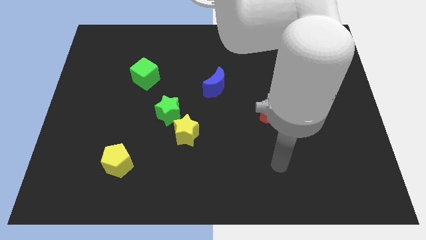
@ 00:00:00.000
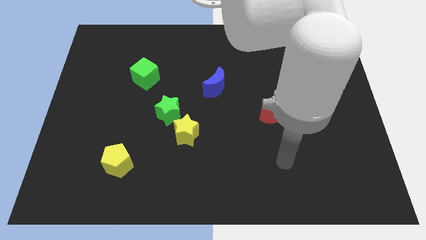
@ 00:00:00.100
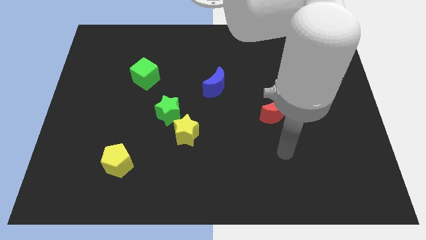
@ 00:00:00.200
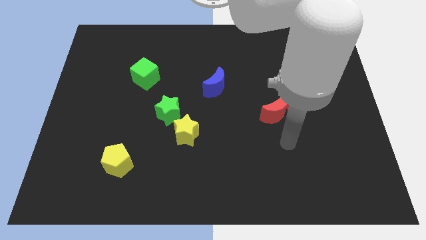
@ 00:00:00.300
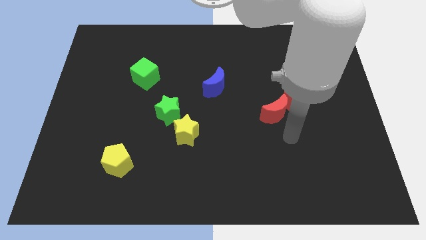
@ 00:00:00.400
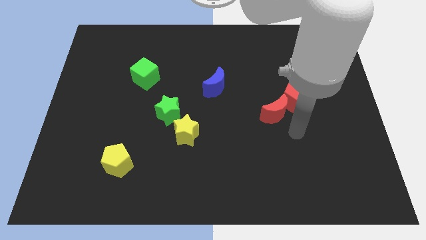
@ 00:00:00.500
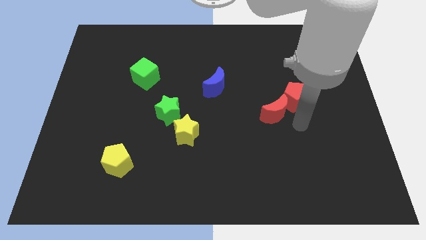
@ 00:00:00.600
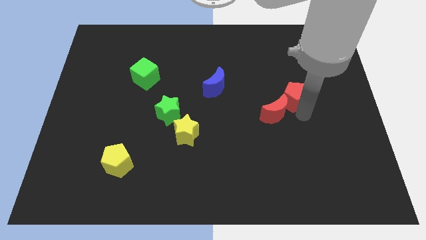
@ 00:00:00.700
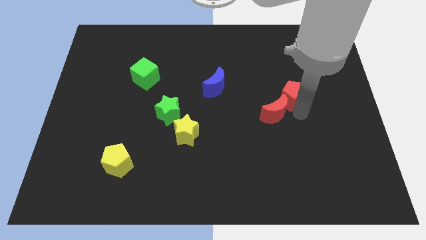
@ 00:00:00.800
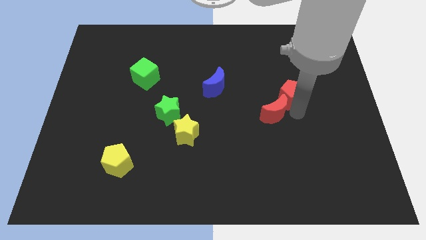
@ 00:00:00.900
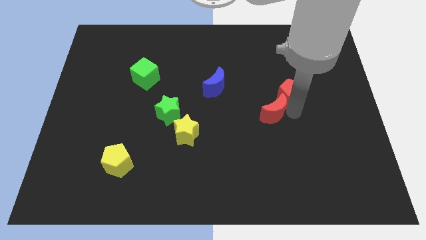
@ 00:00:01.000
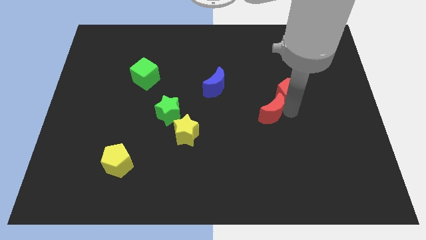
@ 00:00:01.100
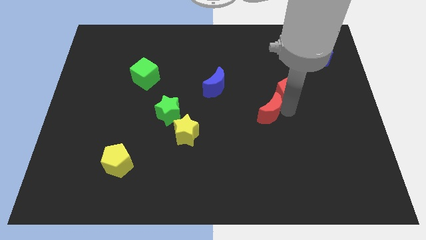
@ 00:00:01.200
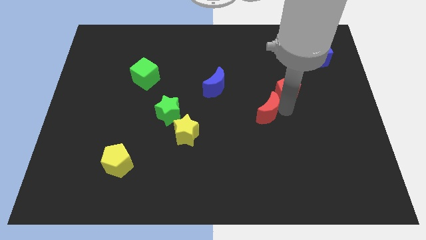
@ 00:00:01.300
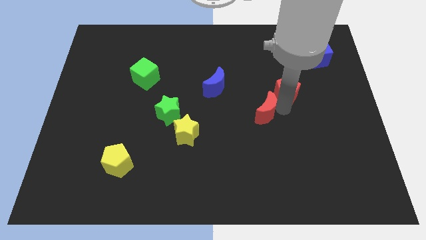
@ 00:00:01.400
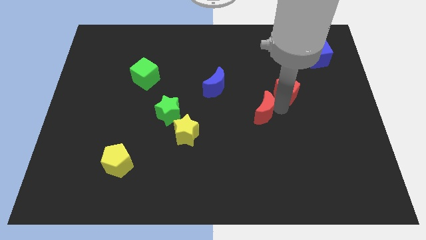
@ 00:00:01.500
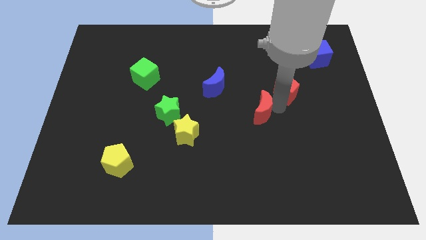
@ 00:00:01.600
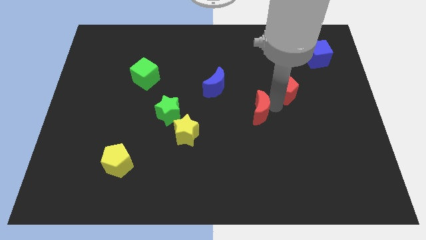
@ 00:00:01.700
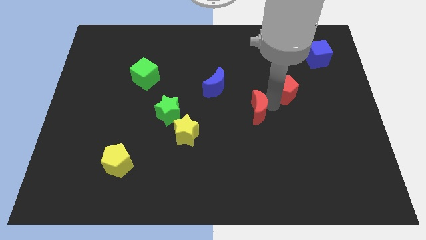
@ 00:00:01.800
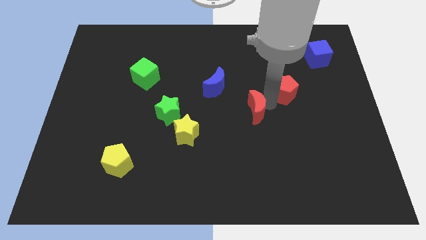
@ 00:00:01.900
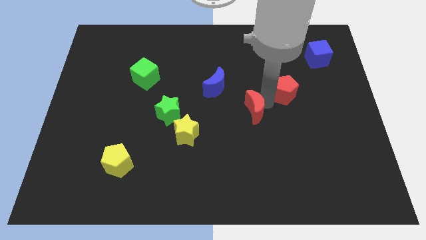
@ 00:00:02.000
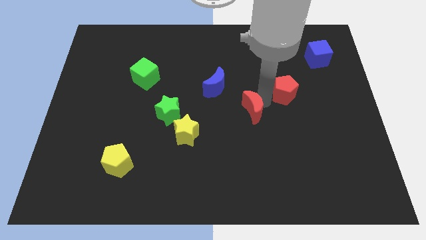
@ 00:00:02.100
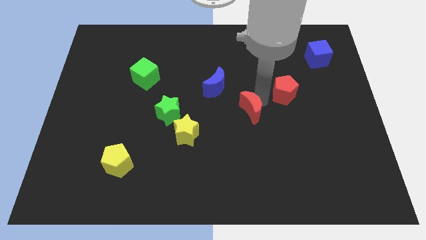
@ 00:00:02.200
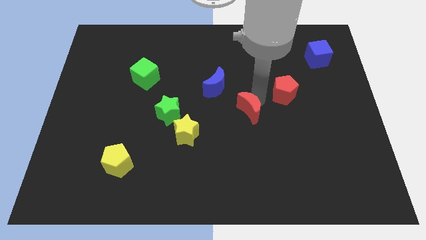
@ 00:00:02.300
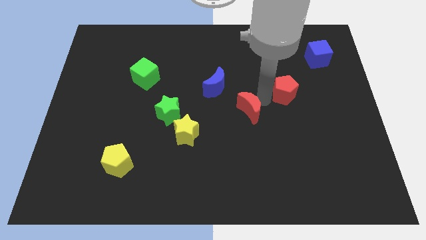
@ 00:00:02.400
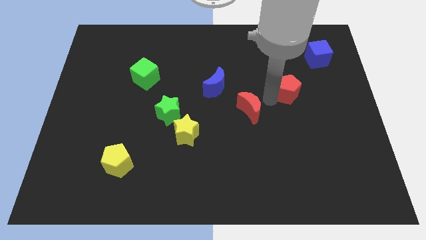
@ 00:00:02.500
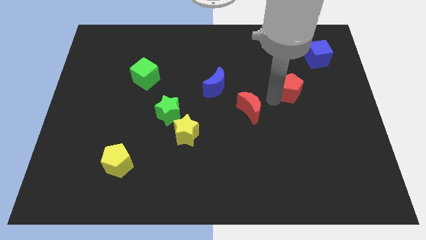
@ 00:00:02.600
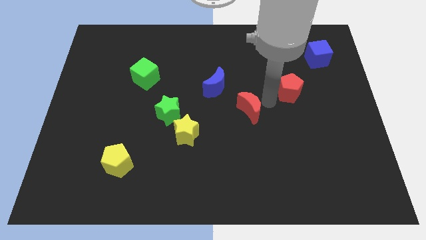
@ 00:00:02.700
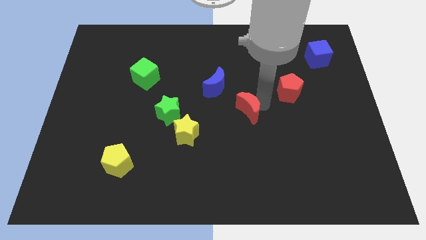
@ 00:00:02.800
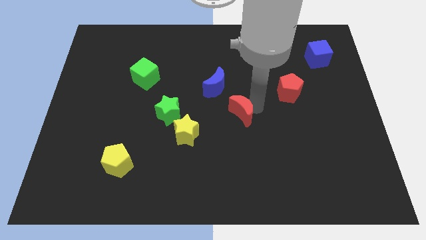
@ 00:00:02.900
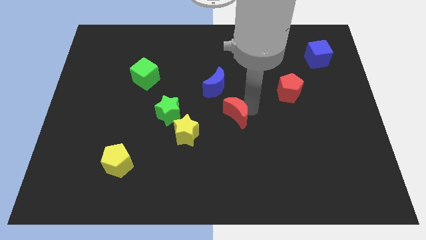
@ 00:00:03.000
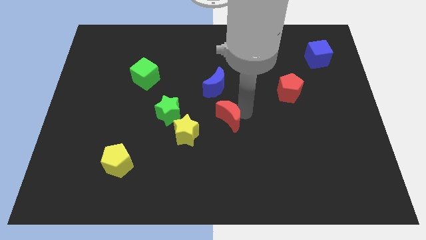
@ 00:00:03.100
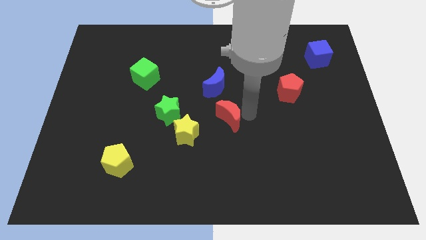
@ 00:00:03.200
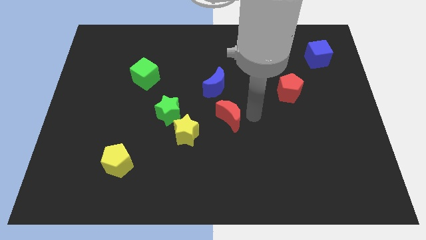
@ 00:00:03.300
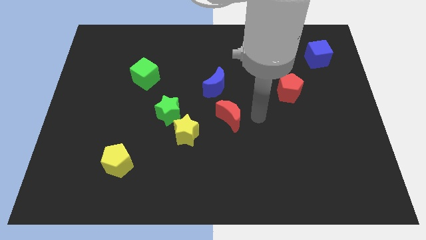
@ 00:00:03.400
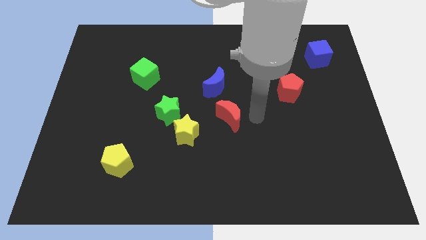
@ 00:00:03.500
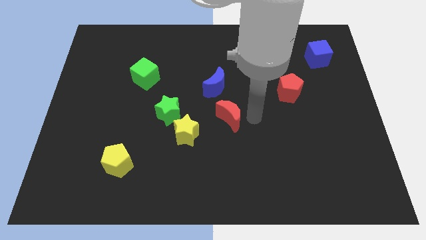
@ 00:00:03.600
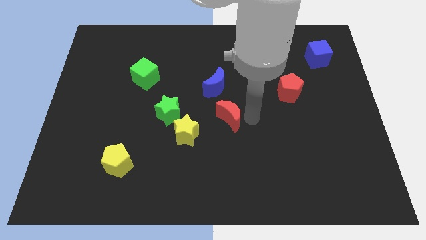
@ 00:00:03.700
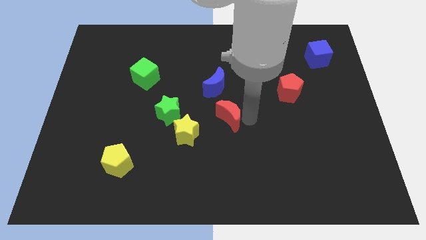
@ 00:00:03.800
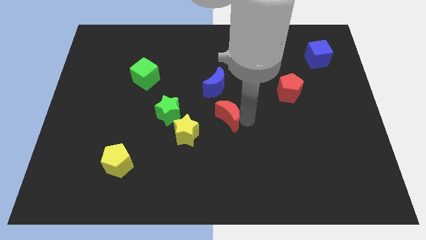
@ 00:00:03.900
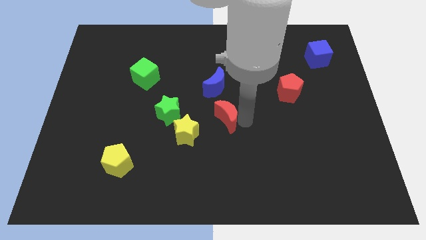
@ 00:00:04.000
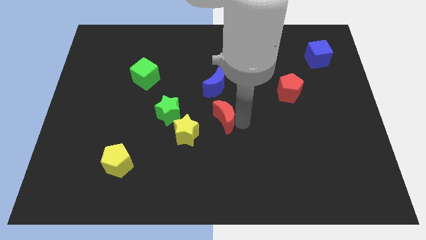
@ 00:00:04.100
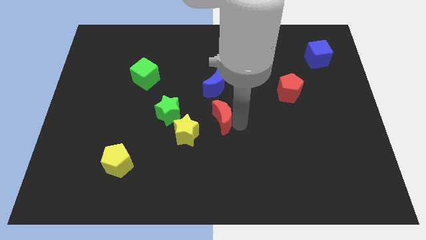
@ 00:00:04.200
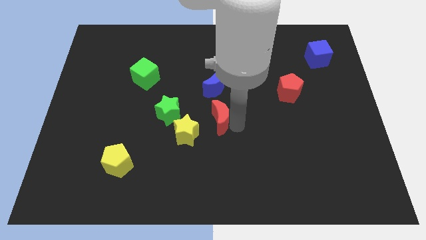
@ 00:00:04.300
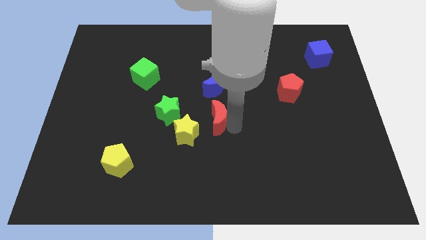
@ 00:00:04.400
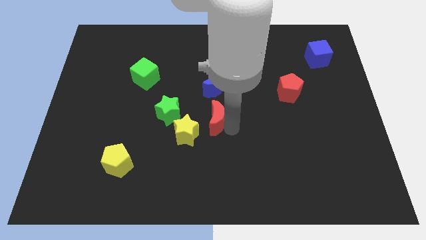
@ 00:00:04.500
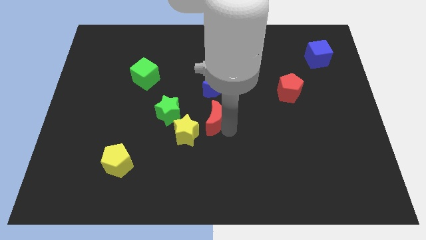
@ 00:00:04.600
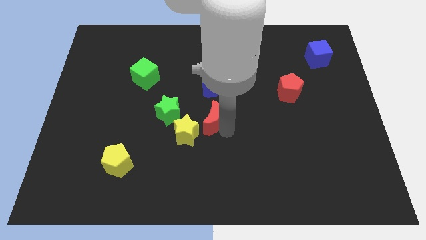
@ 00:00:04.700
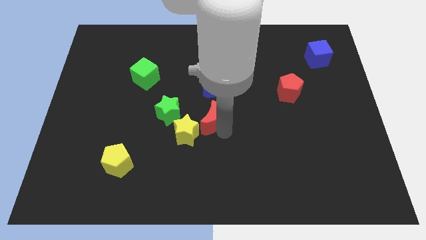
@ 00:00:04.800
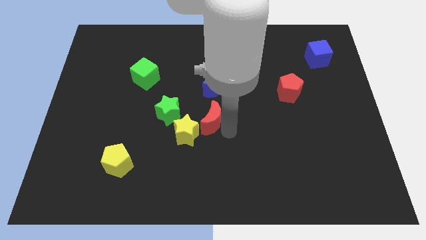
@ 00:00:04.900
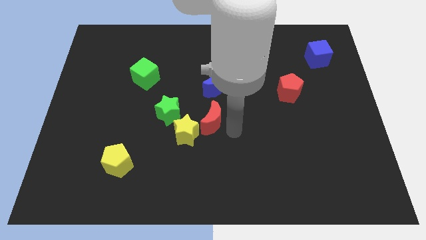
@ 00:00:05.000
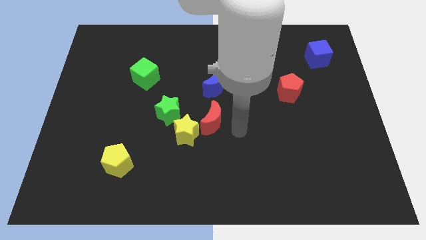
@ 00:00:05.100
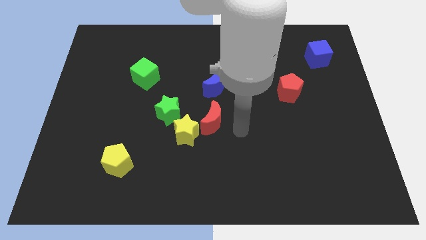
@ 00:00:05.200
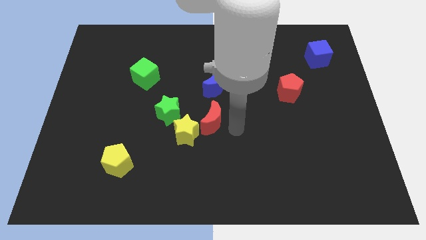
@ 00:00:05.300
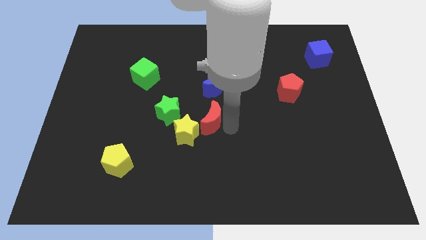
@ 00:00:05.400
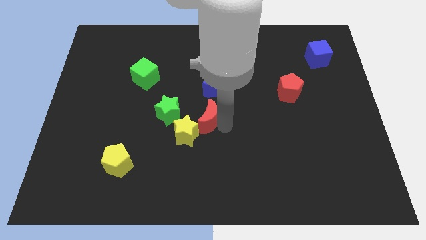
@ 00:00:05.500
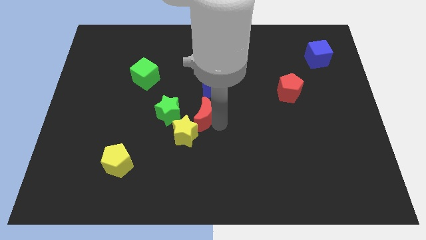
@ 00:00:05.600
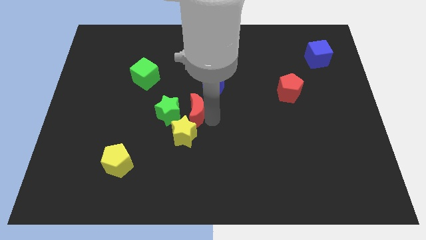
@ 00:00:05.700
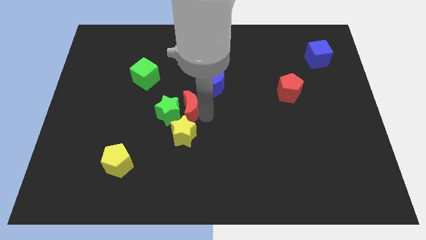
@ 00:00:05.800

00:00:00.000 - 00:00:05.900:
move the red moon to the green star

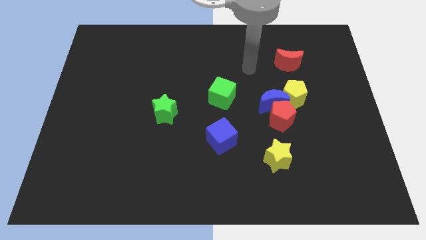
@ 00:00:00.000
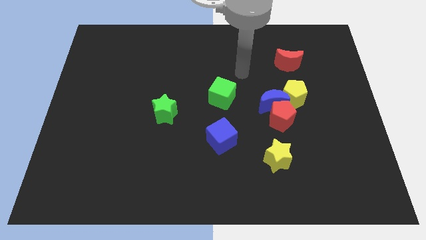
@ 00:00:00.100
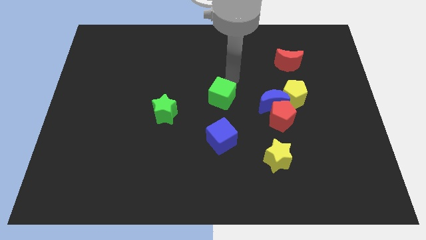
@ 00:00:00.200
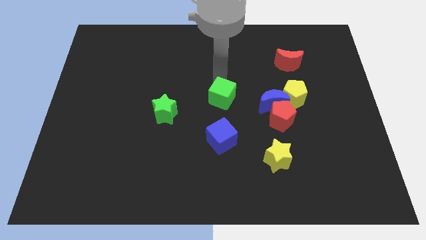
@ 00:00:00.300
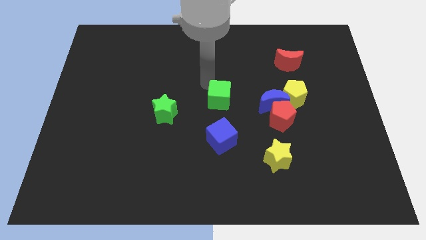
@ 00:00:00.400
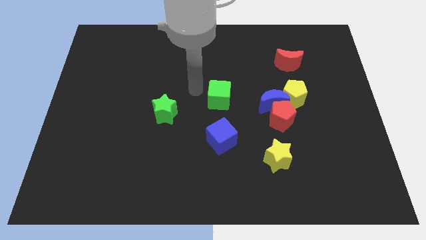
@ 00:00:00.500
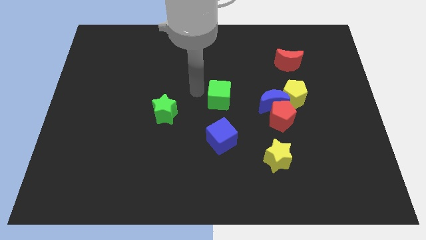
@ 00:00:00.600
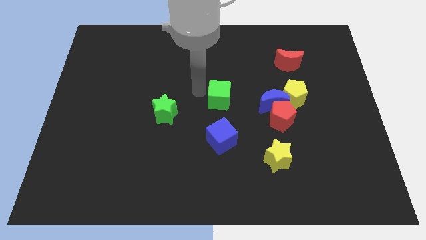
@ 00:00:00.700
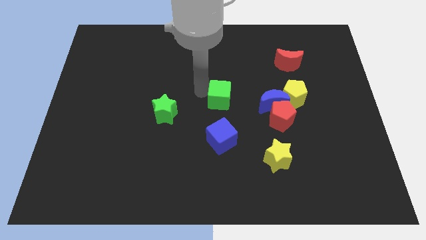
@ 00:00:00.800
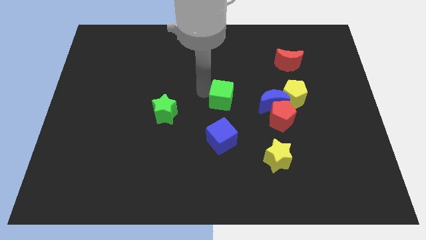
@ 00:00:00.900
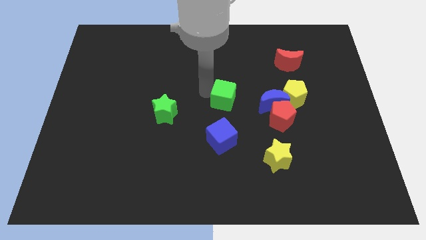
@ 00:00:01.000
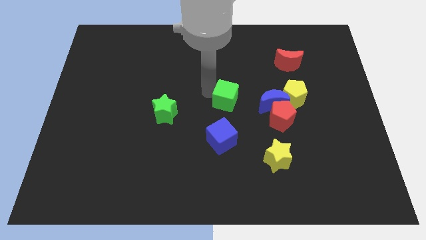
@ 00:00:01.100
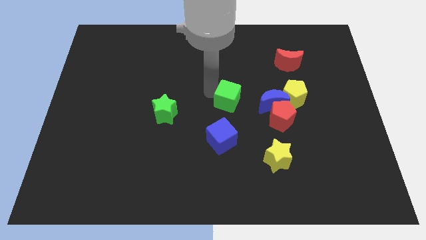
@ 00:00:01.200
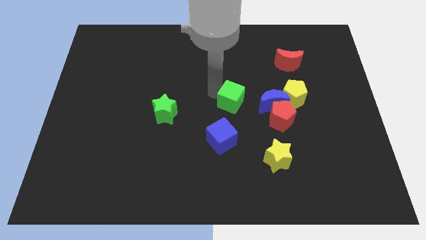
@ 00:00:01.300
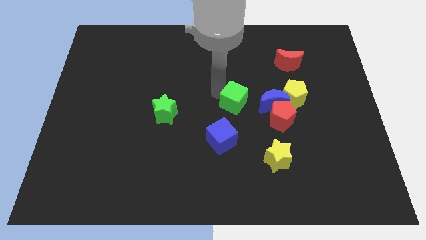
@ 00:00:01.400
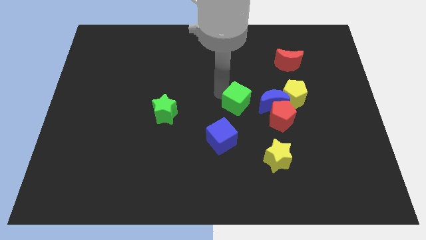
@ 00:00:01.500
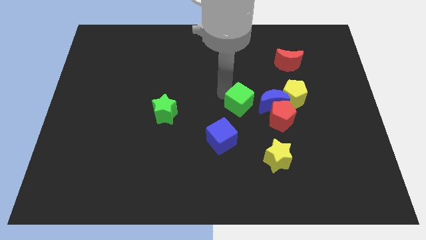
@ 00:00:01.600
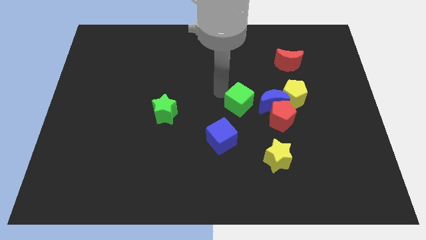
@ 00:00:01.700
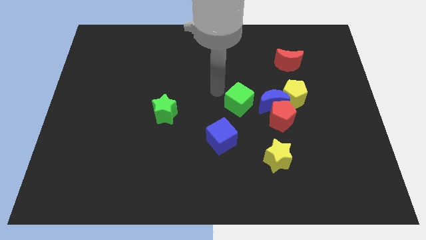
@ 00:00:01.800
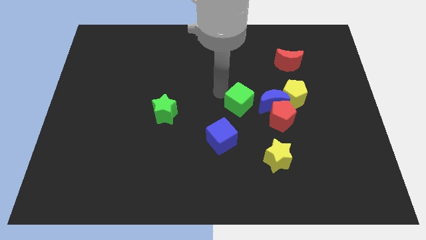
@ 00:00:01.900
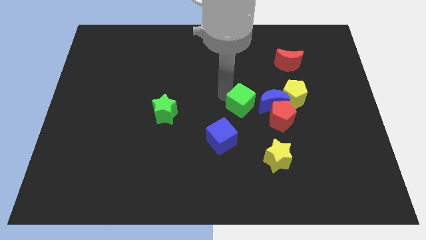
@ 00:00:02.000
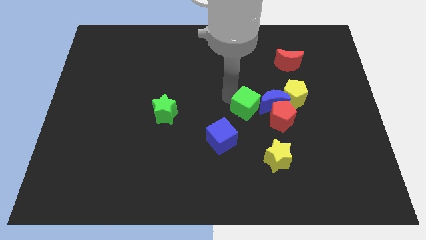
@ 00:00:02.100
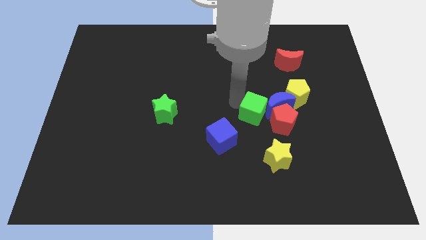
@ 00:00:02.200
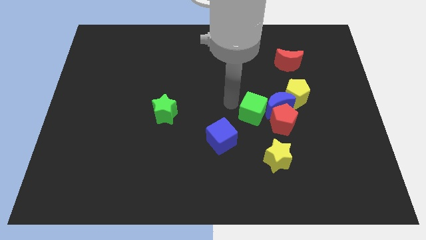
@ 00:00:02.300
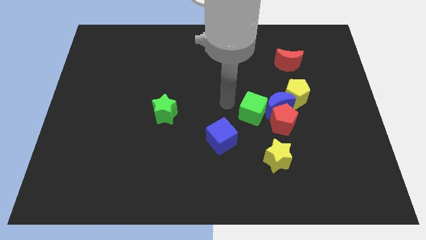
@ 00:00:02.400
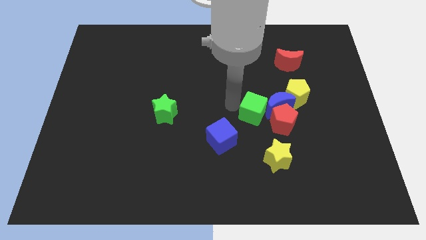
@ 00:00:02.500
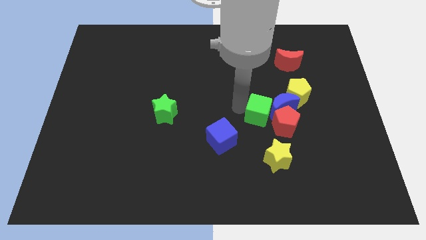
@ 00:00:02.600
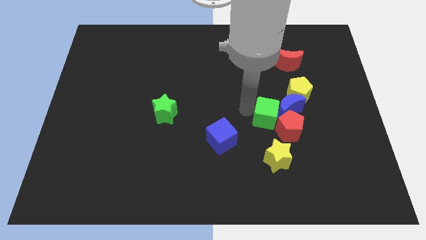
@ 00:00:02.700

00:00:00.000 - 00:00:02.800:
push the green cube to the red pentagon
